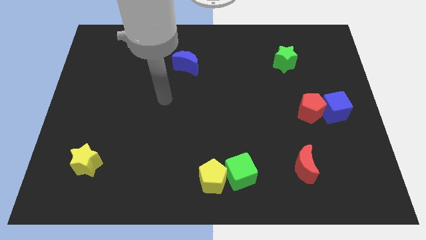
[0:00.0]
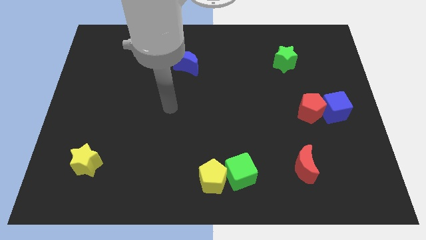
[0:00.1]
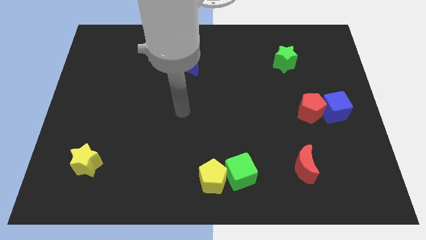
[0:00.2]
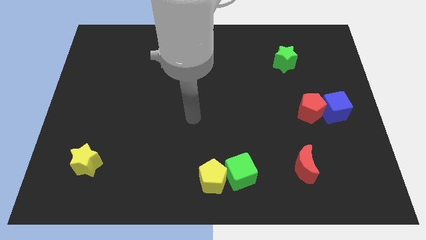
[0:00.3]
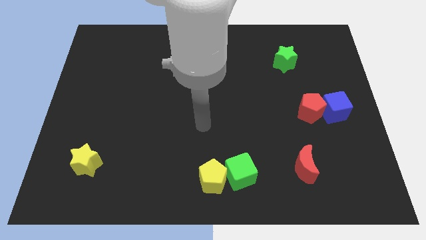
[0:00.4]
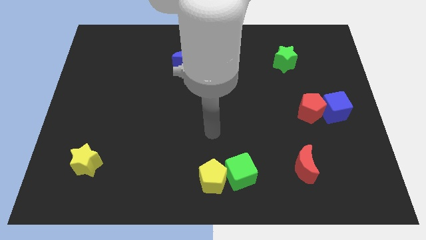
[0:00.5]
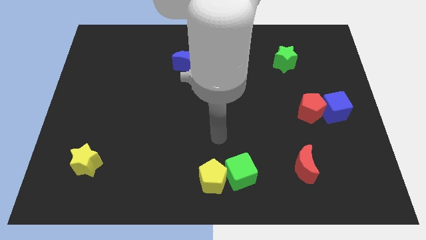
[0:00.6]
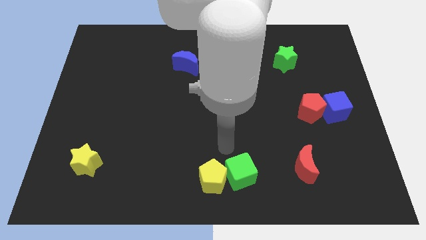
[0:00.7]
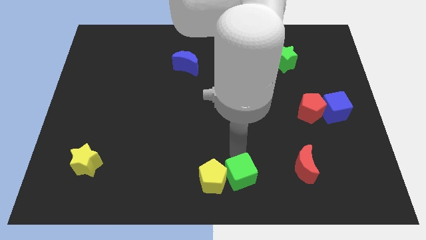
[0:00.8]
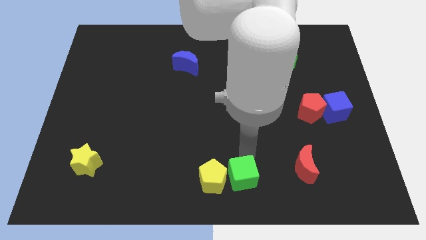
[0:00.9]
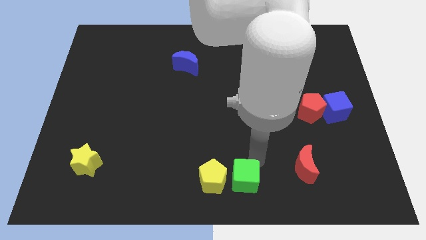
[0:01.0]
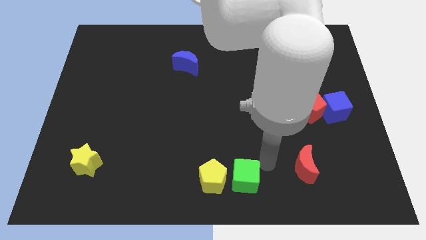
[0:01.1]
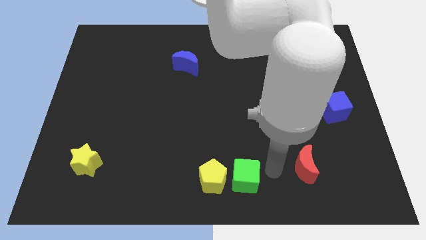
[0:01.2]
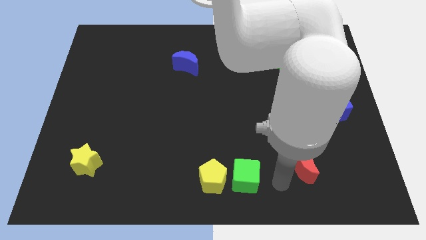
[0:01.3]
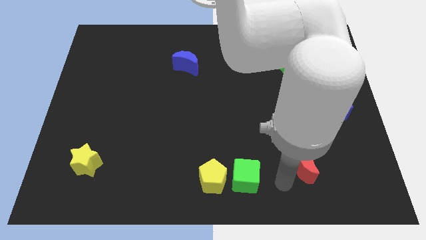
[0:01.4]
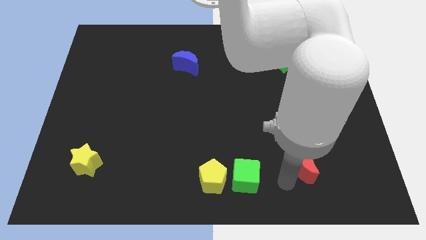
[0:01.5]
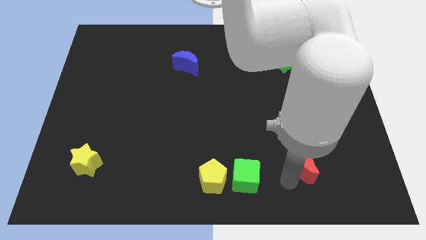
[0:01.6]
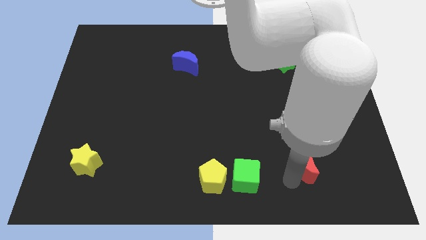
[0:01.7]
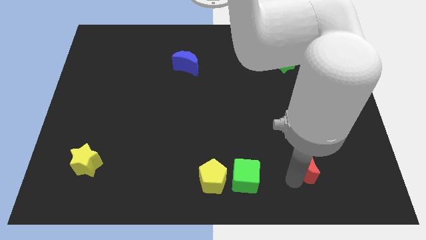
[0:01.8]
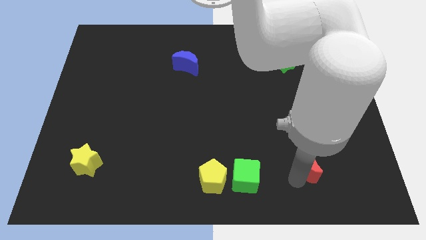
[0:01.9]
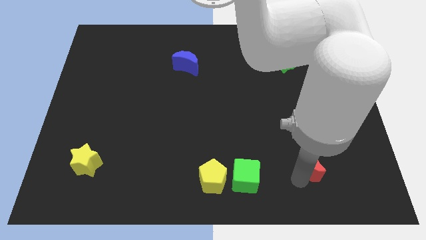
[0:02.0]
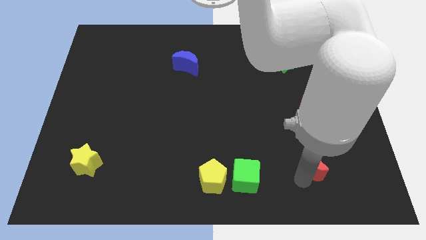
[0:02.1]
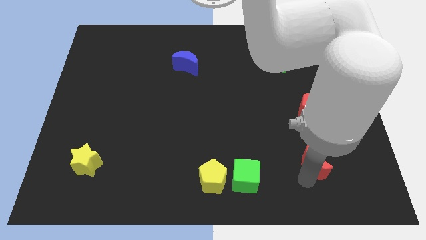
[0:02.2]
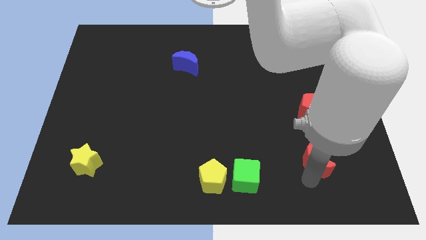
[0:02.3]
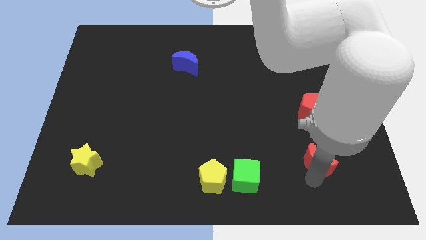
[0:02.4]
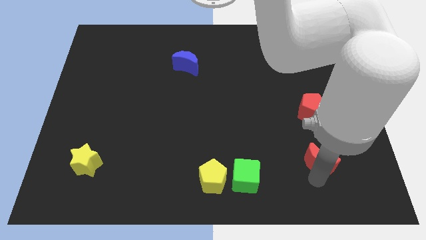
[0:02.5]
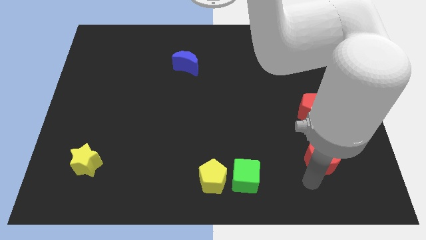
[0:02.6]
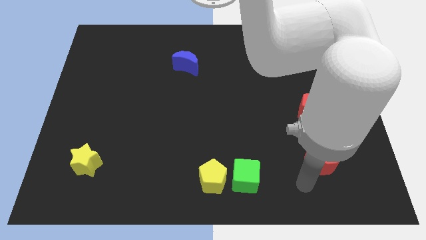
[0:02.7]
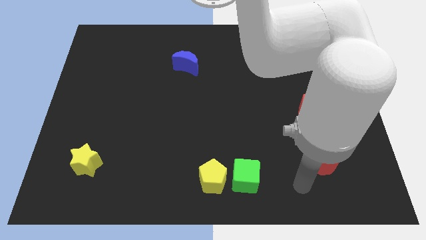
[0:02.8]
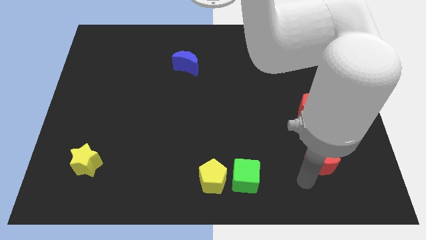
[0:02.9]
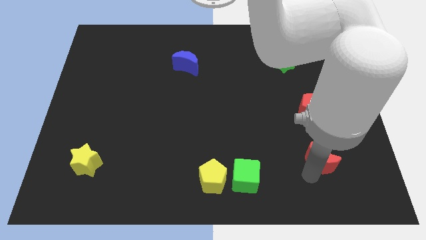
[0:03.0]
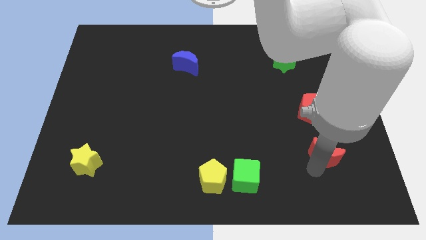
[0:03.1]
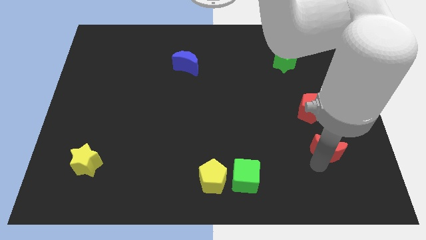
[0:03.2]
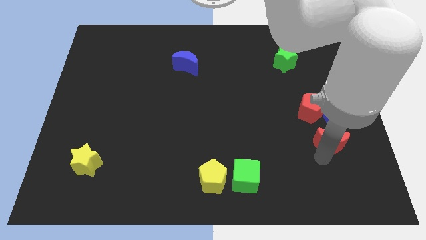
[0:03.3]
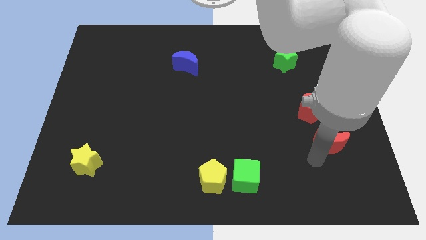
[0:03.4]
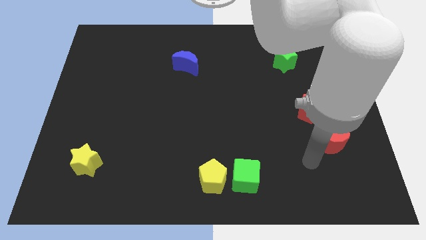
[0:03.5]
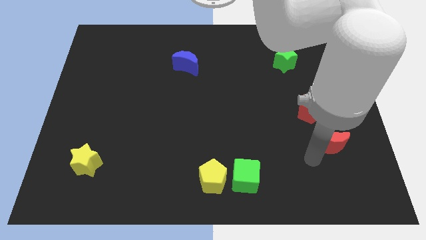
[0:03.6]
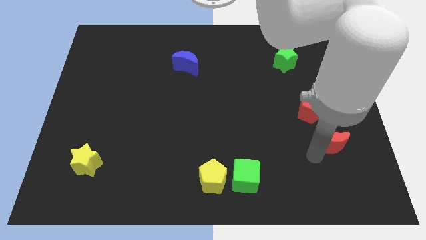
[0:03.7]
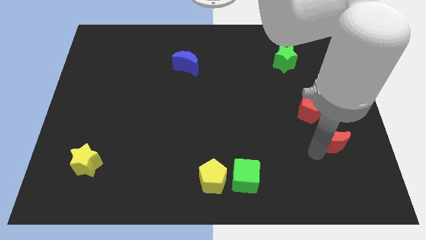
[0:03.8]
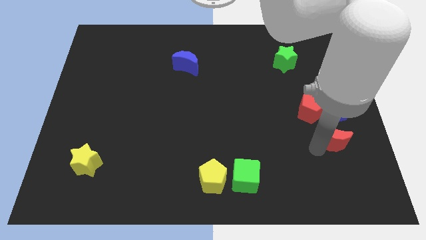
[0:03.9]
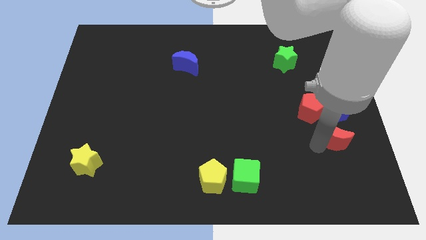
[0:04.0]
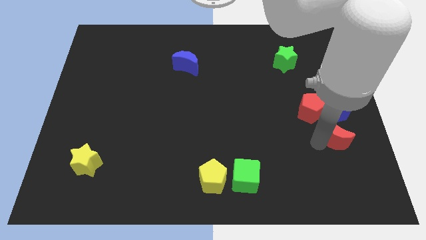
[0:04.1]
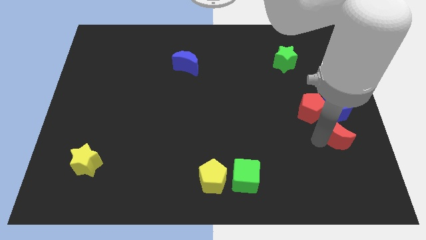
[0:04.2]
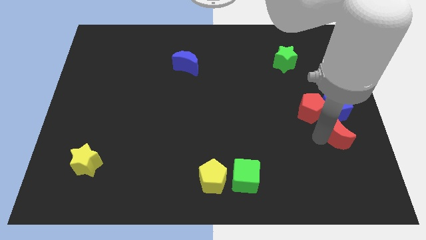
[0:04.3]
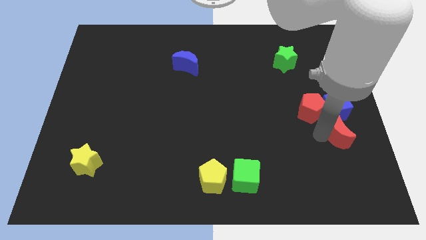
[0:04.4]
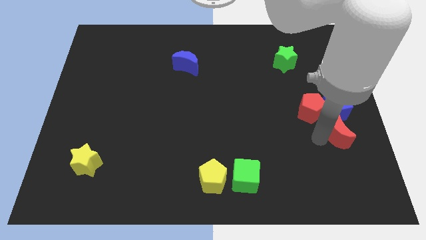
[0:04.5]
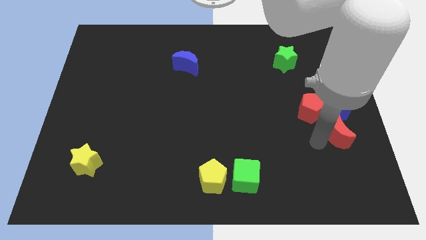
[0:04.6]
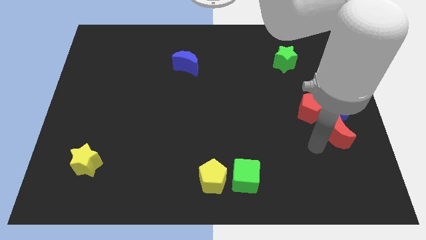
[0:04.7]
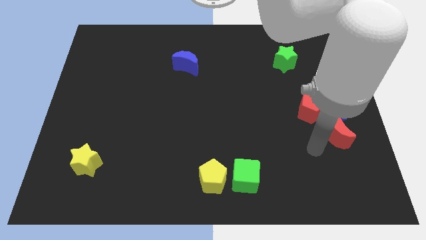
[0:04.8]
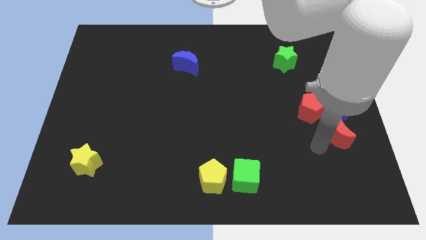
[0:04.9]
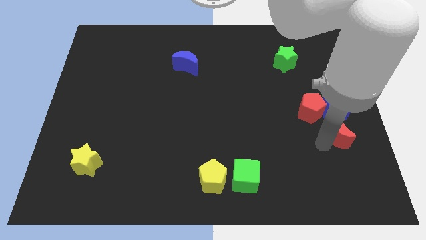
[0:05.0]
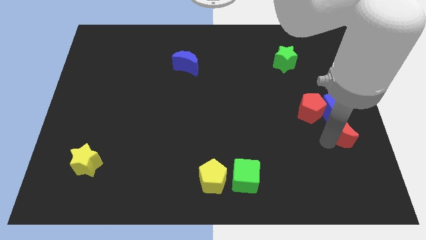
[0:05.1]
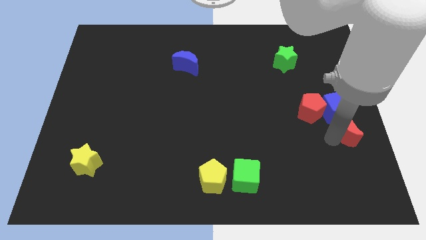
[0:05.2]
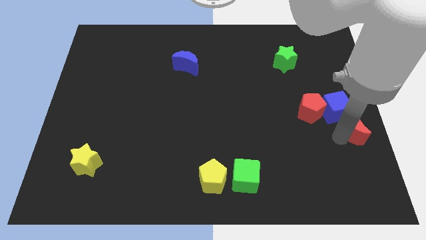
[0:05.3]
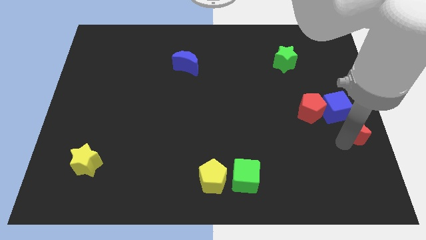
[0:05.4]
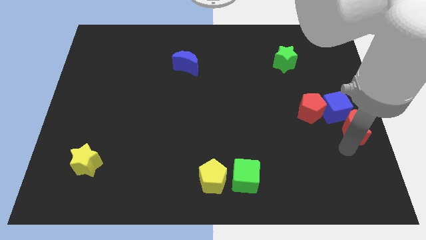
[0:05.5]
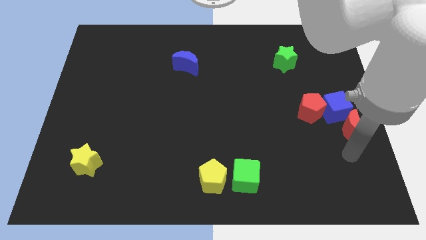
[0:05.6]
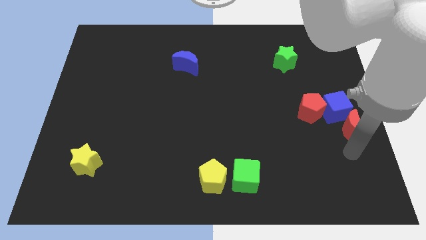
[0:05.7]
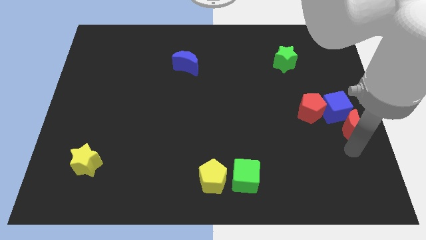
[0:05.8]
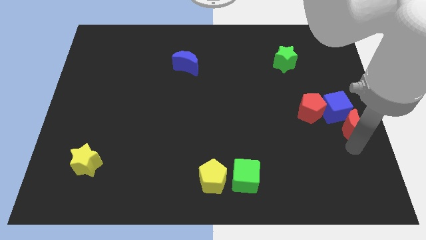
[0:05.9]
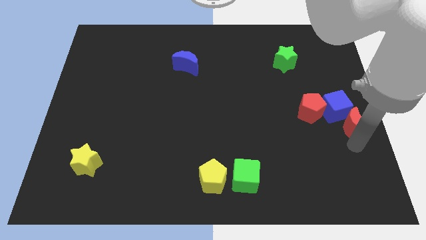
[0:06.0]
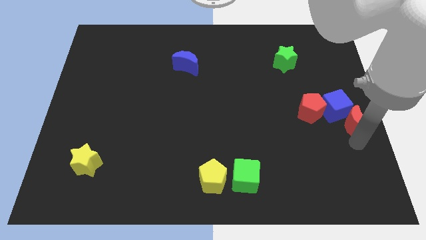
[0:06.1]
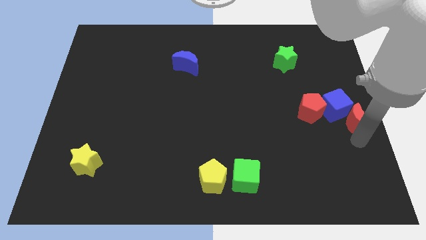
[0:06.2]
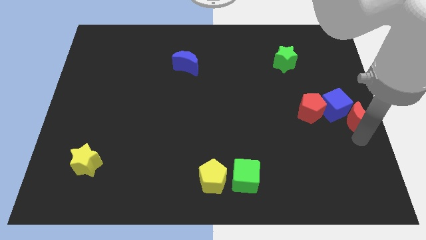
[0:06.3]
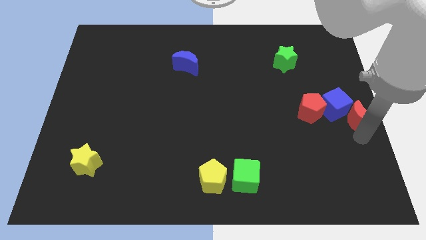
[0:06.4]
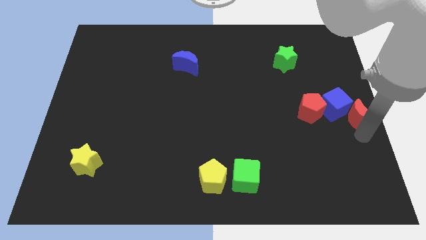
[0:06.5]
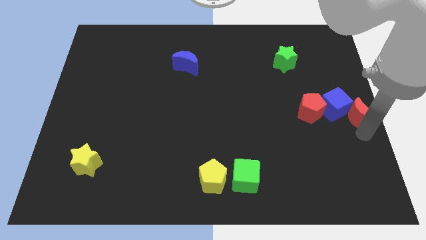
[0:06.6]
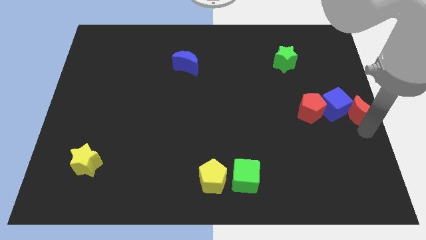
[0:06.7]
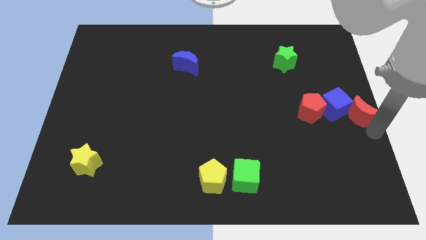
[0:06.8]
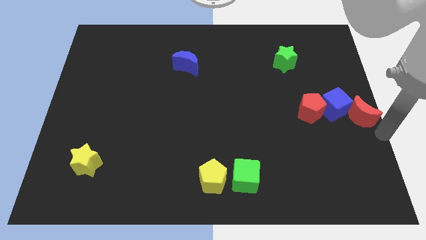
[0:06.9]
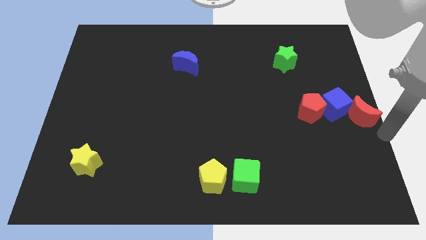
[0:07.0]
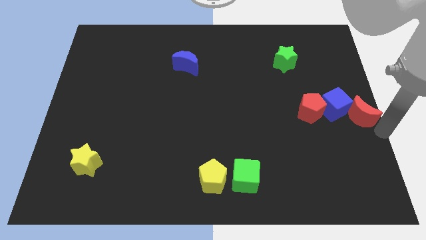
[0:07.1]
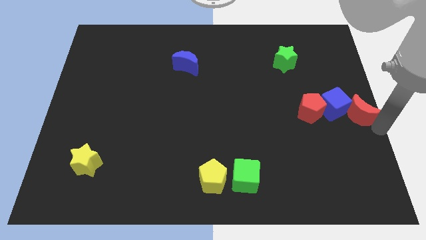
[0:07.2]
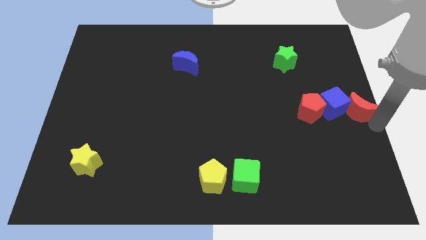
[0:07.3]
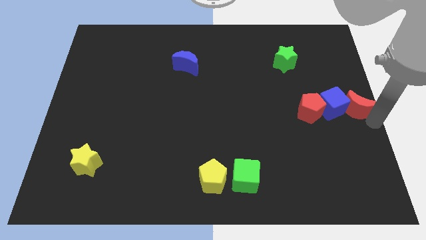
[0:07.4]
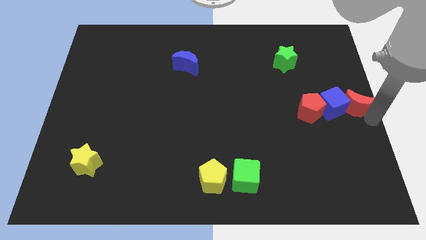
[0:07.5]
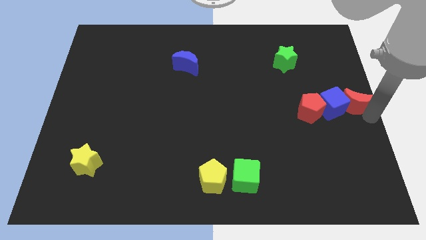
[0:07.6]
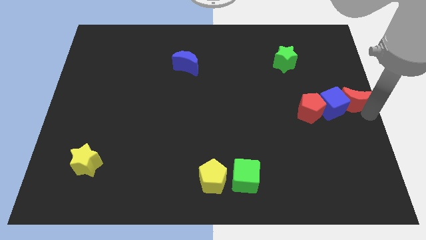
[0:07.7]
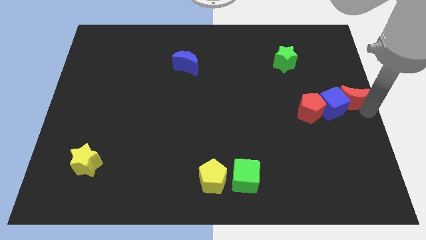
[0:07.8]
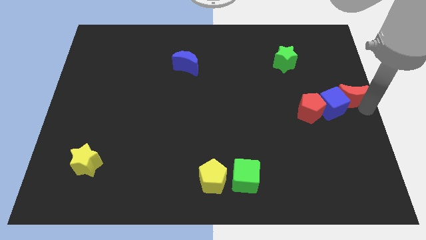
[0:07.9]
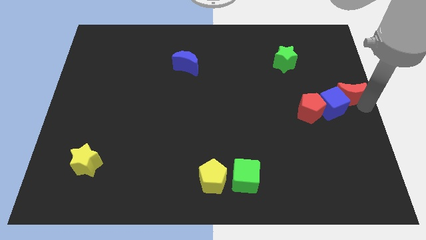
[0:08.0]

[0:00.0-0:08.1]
push the red moon to the top right side of the red pentagon
